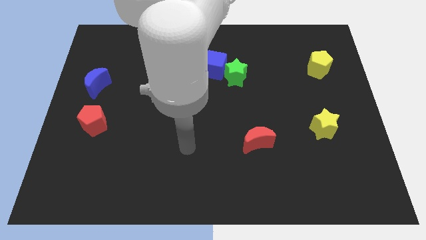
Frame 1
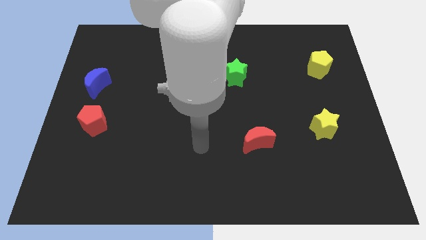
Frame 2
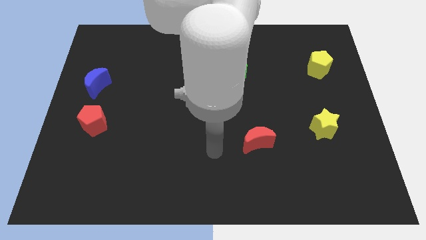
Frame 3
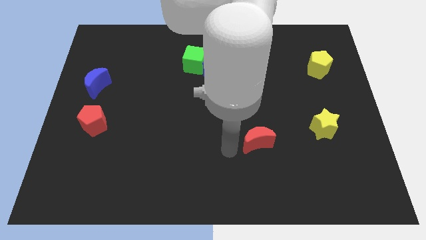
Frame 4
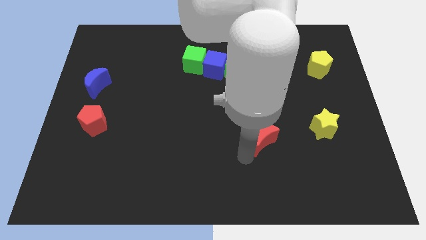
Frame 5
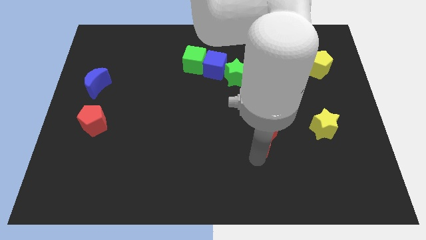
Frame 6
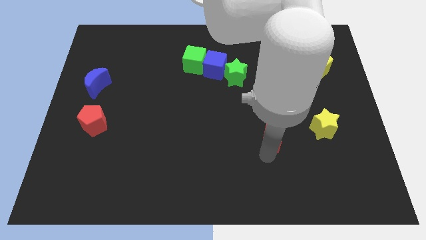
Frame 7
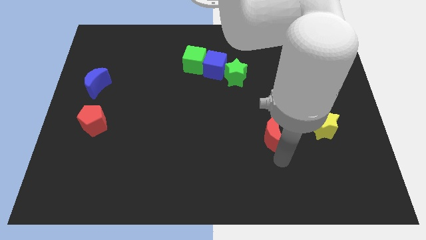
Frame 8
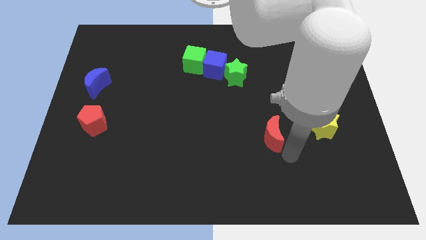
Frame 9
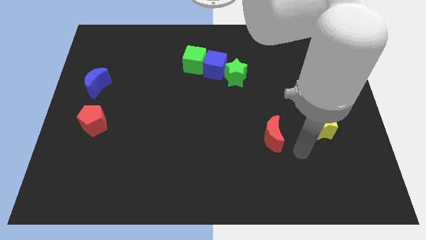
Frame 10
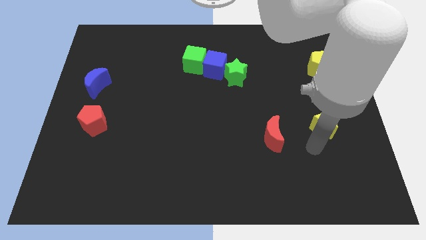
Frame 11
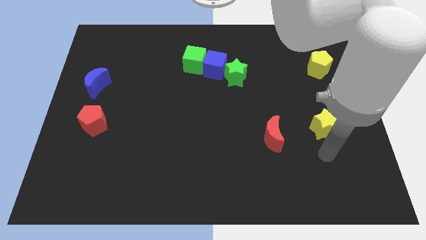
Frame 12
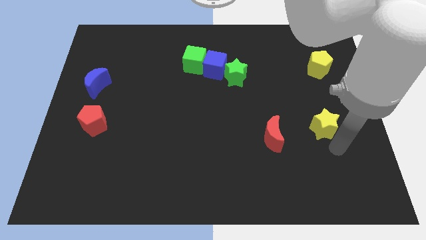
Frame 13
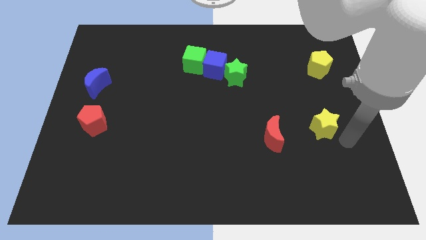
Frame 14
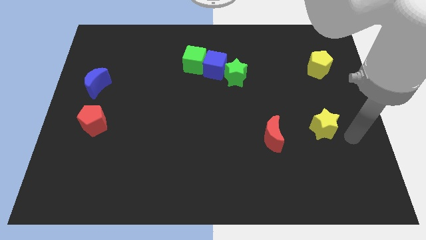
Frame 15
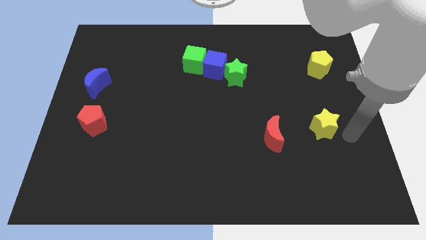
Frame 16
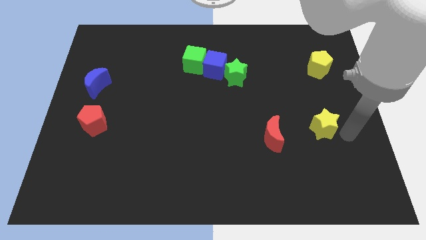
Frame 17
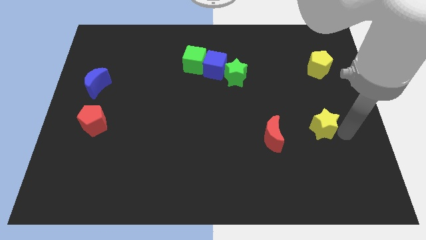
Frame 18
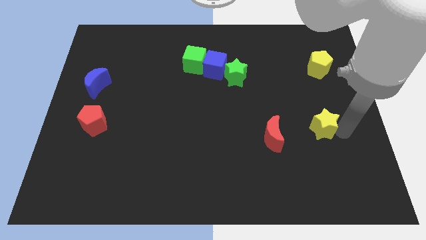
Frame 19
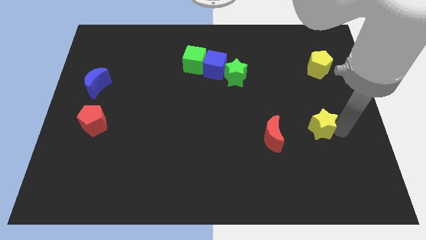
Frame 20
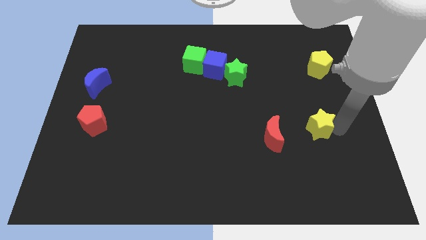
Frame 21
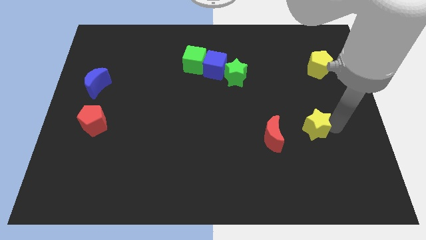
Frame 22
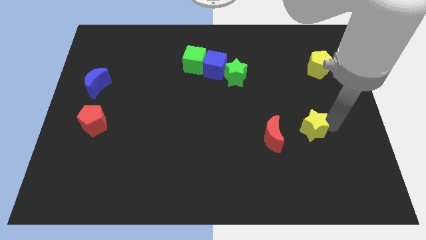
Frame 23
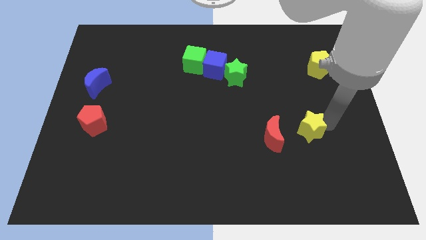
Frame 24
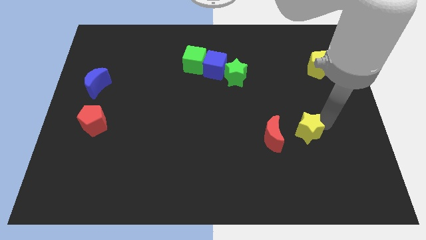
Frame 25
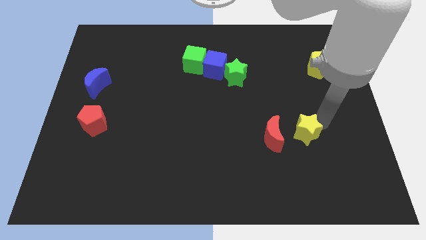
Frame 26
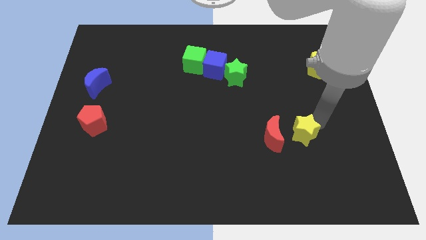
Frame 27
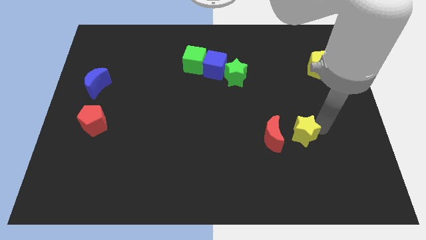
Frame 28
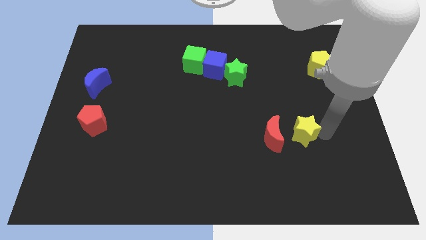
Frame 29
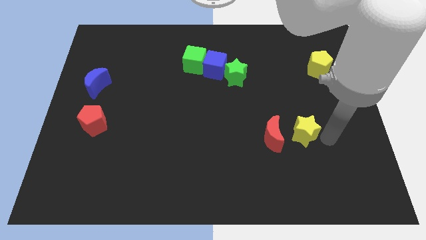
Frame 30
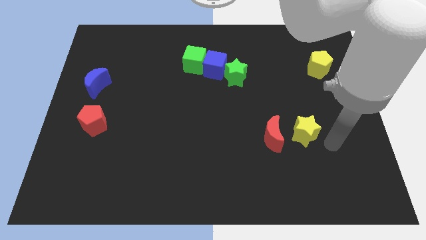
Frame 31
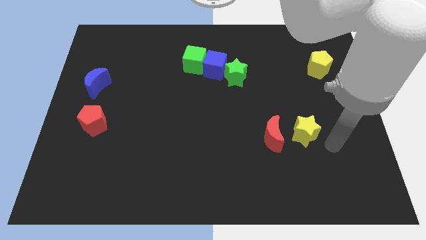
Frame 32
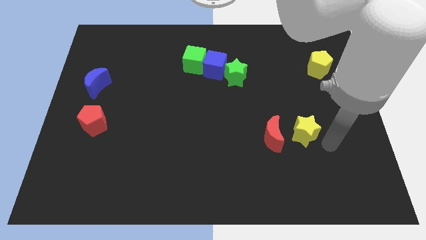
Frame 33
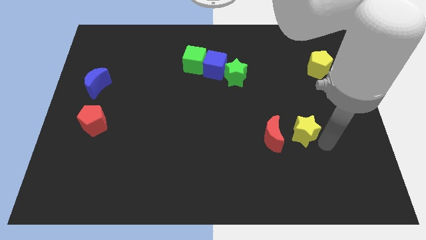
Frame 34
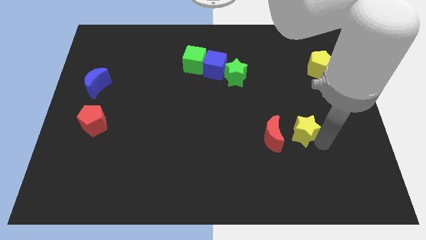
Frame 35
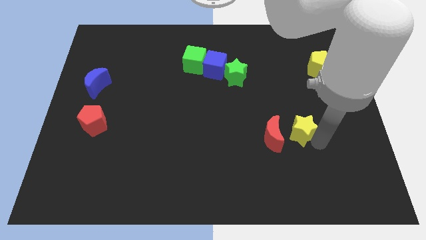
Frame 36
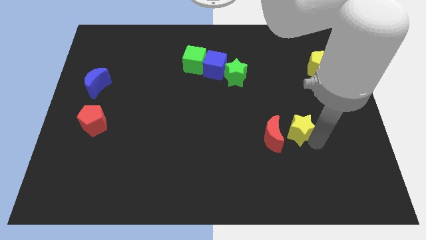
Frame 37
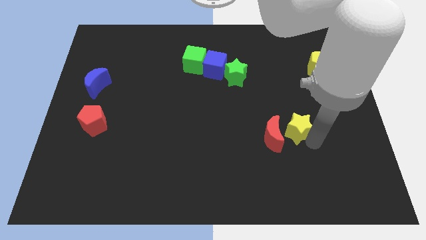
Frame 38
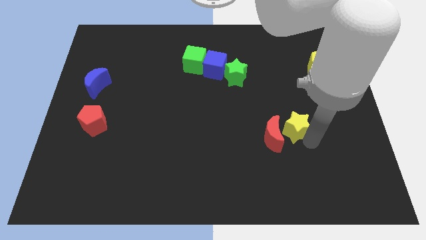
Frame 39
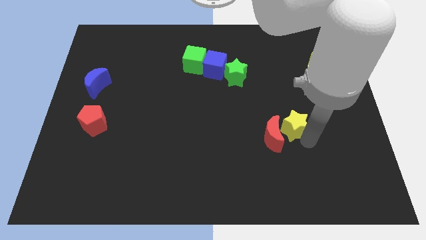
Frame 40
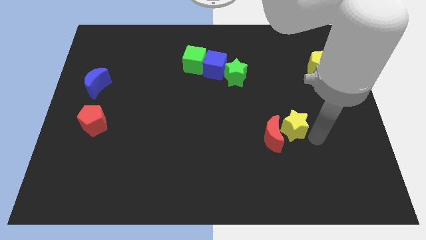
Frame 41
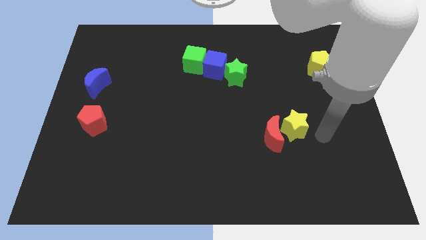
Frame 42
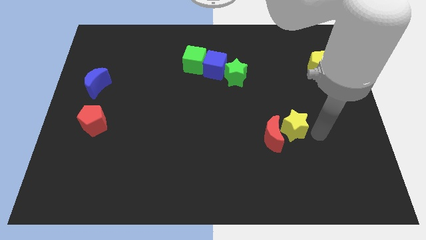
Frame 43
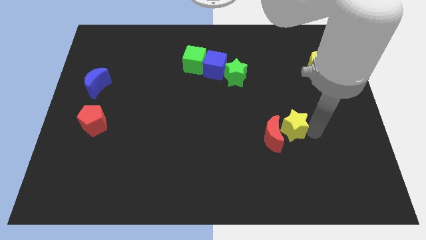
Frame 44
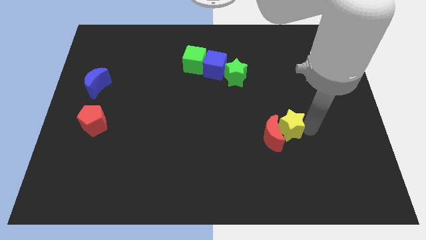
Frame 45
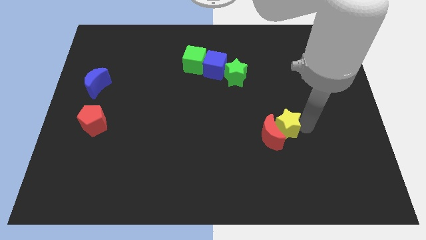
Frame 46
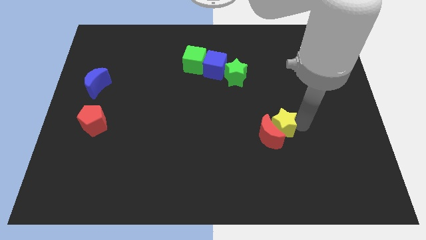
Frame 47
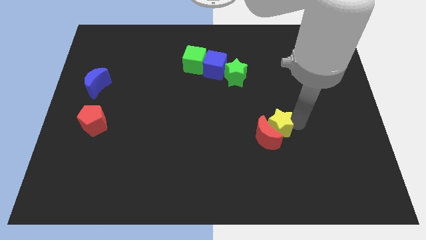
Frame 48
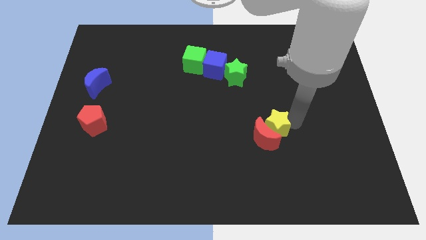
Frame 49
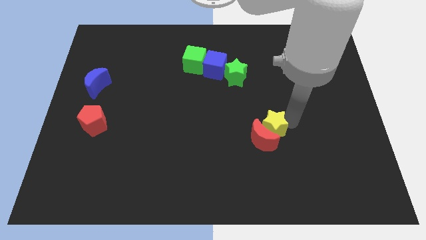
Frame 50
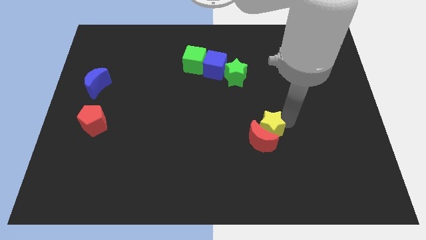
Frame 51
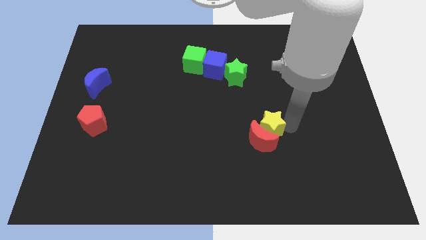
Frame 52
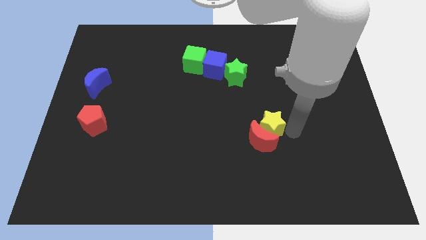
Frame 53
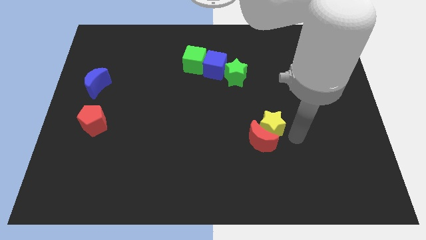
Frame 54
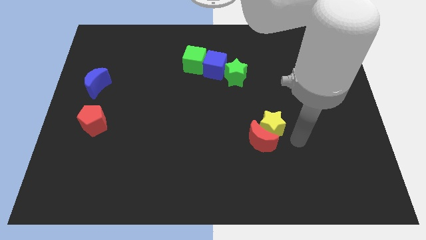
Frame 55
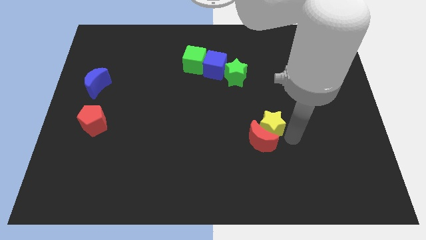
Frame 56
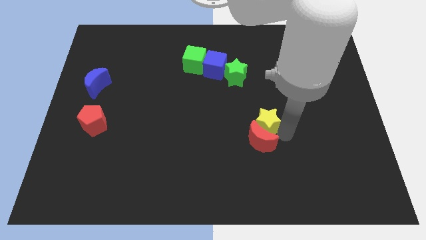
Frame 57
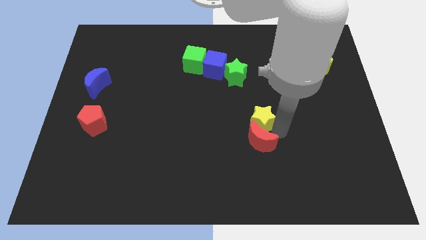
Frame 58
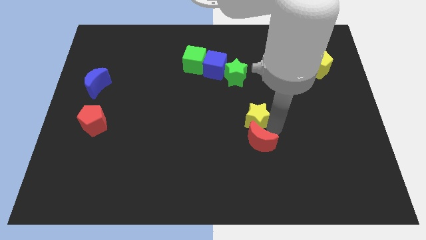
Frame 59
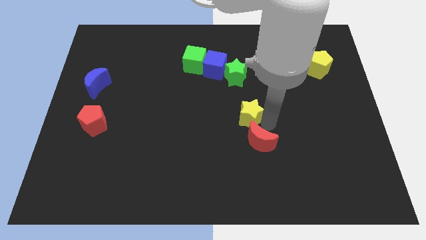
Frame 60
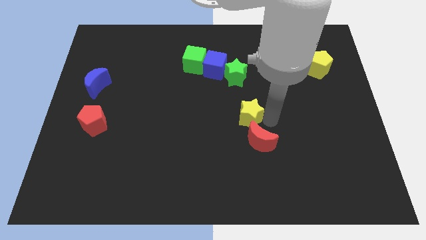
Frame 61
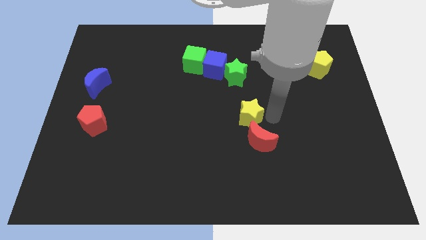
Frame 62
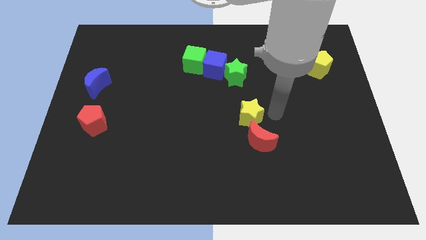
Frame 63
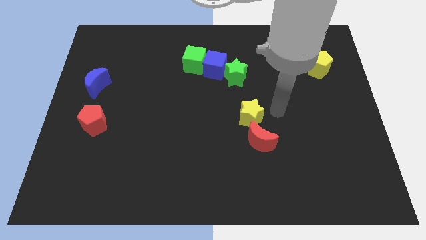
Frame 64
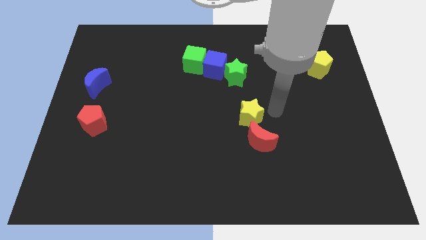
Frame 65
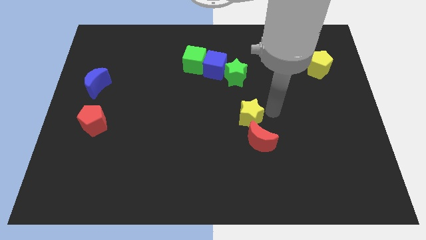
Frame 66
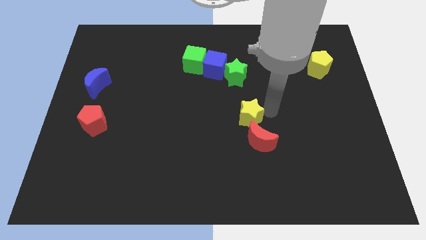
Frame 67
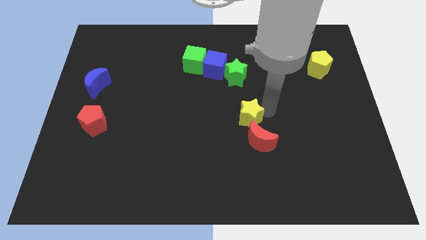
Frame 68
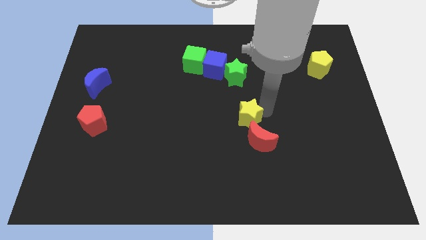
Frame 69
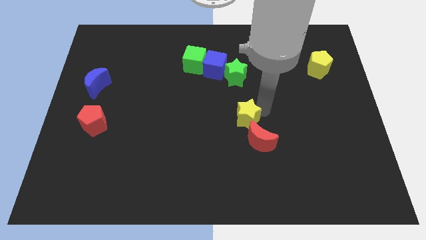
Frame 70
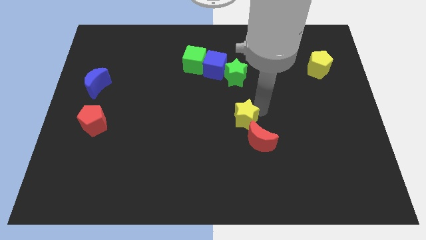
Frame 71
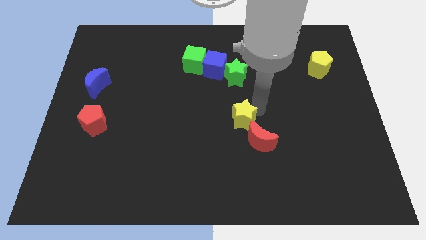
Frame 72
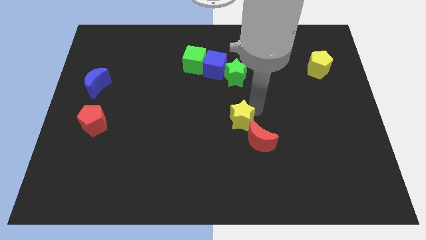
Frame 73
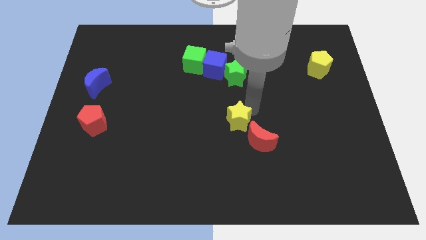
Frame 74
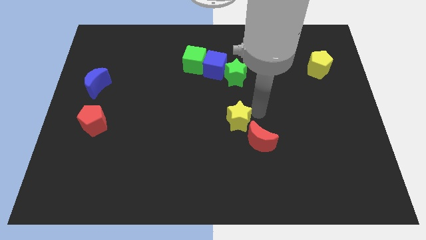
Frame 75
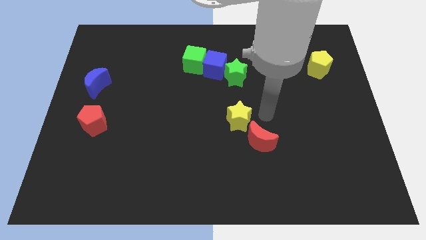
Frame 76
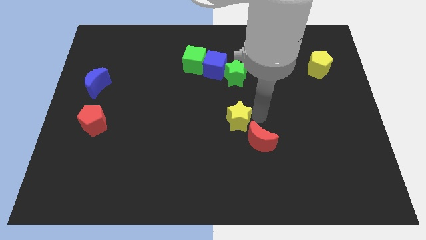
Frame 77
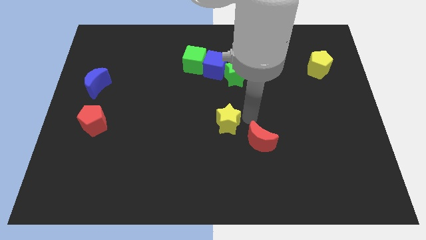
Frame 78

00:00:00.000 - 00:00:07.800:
slide the yellow star left

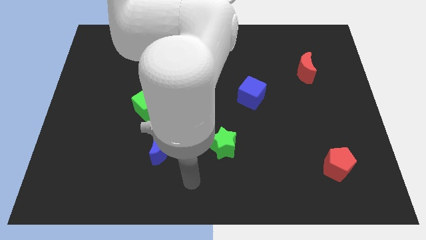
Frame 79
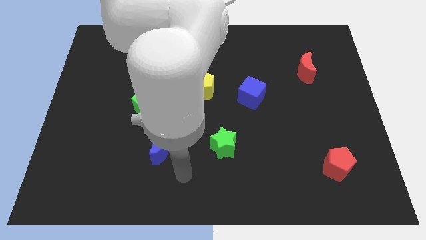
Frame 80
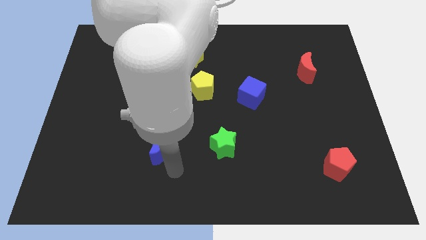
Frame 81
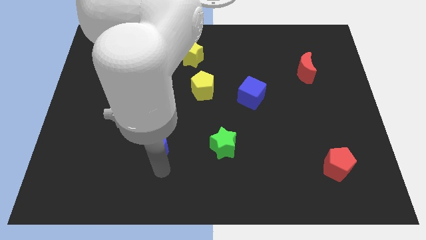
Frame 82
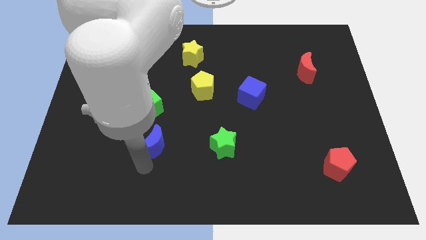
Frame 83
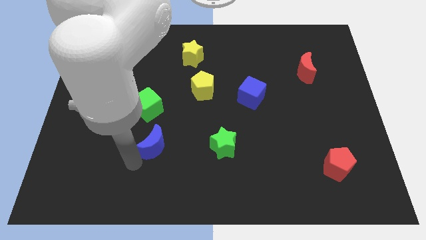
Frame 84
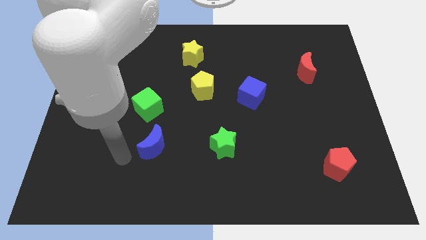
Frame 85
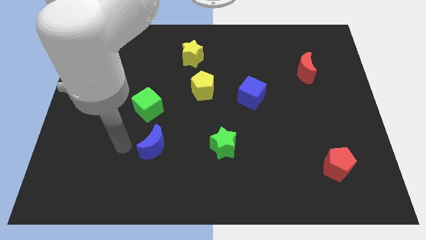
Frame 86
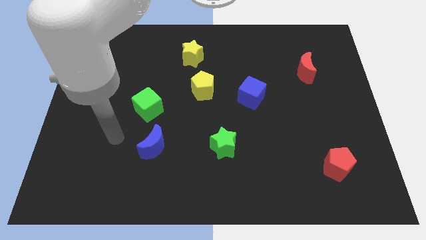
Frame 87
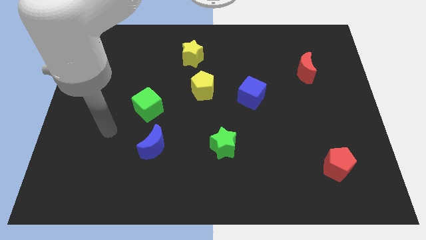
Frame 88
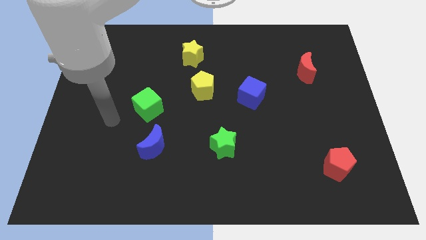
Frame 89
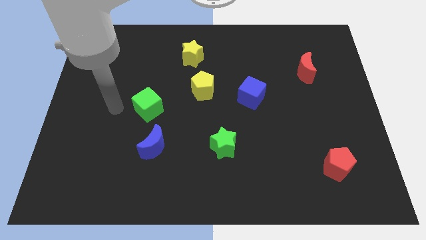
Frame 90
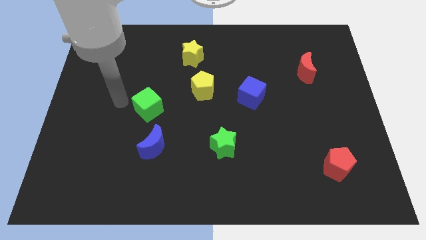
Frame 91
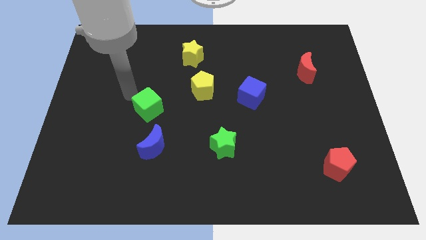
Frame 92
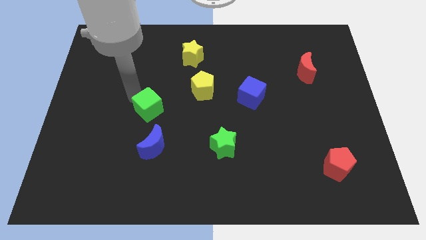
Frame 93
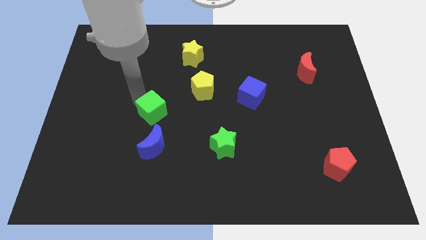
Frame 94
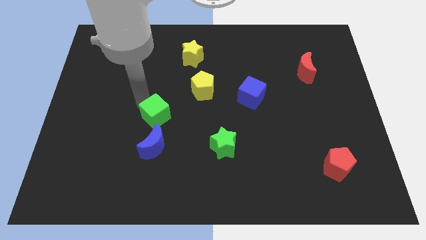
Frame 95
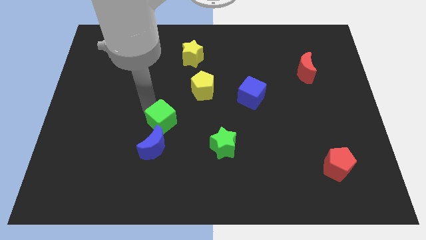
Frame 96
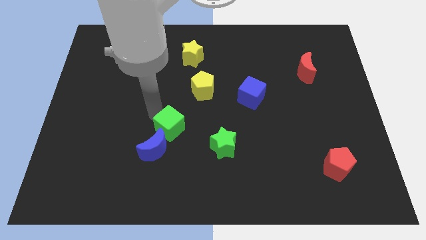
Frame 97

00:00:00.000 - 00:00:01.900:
move the green cube slightly downwards and then to the right
